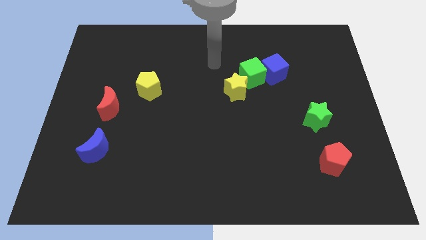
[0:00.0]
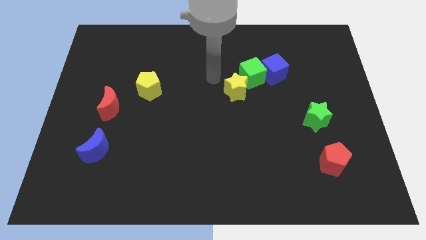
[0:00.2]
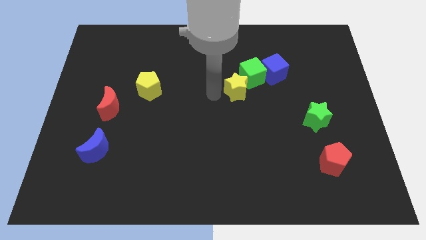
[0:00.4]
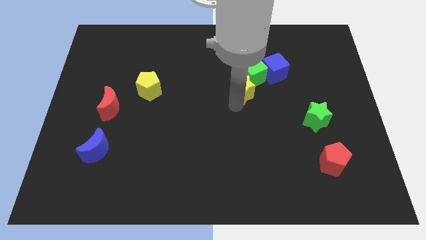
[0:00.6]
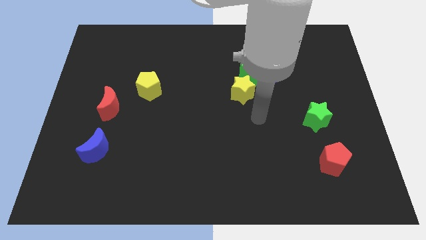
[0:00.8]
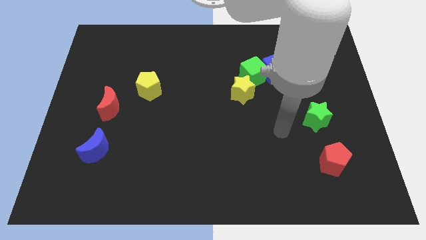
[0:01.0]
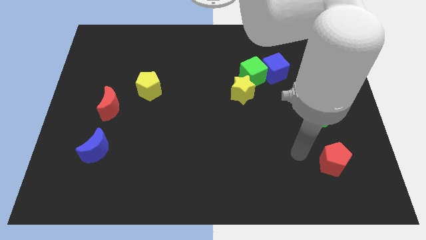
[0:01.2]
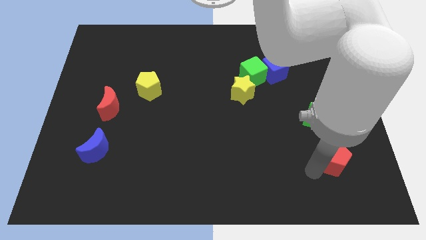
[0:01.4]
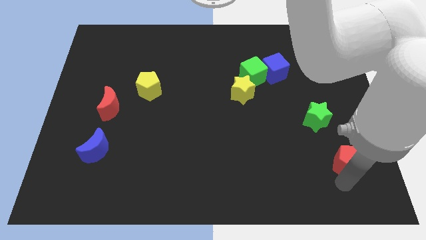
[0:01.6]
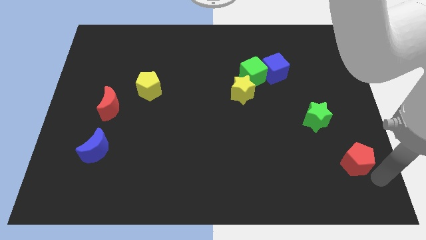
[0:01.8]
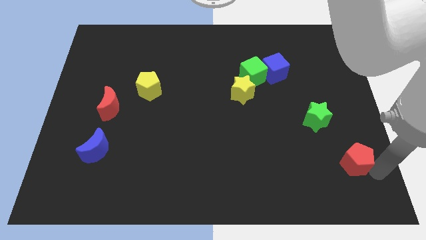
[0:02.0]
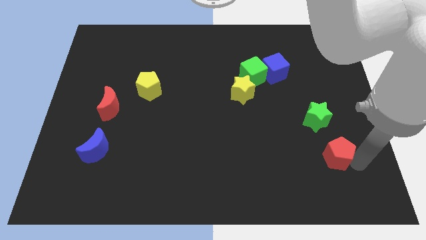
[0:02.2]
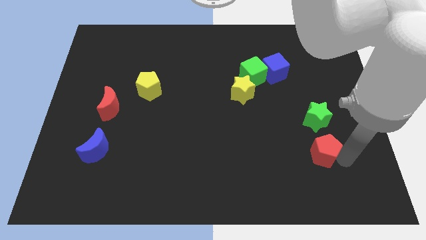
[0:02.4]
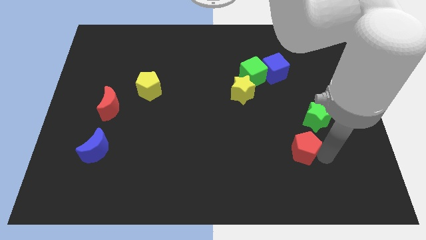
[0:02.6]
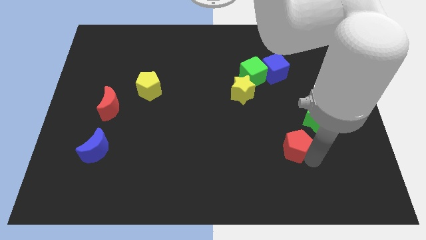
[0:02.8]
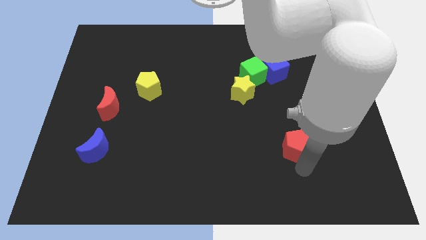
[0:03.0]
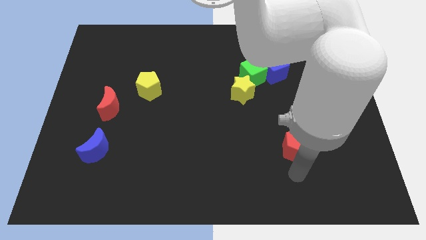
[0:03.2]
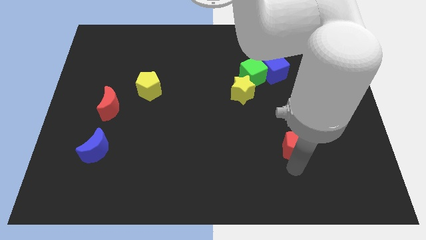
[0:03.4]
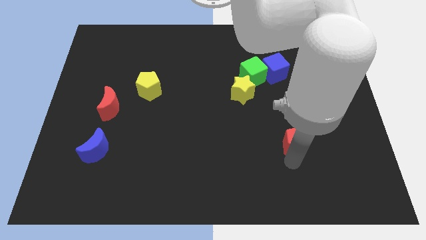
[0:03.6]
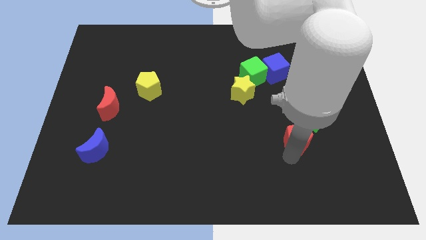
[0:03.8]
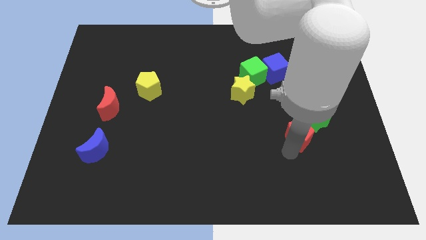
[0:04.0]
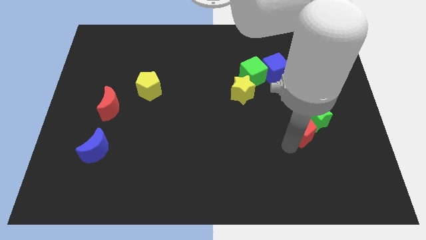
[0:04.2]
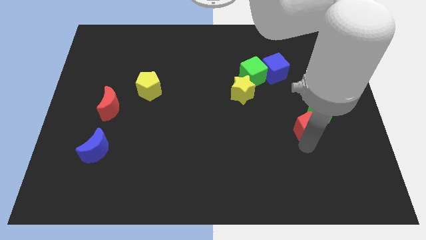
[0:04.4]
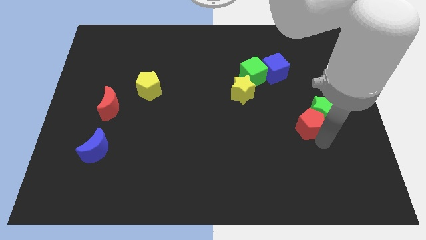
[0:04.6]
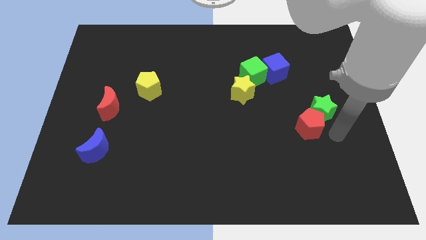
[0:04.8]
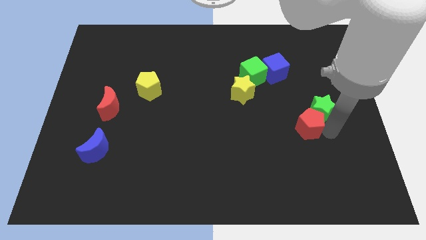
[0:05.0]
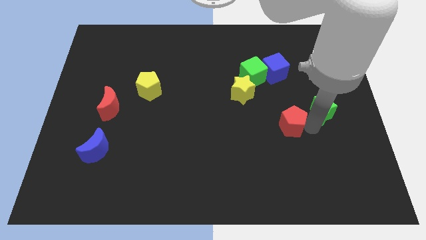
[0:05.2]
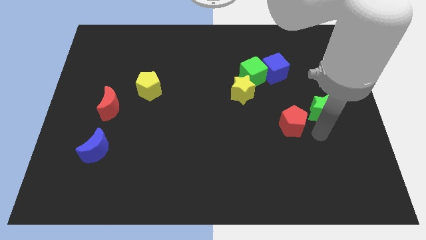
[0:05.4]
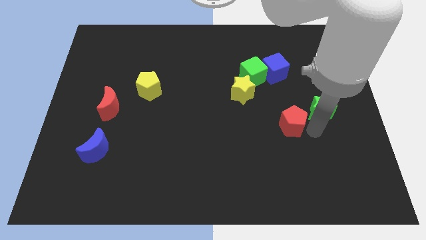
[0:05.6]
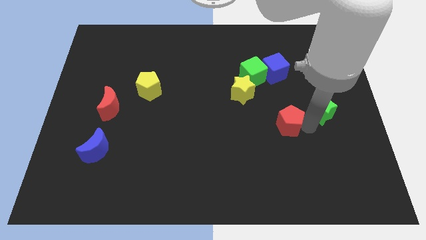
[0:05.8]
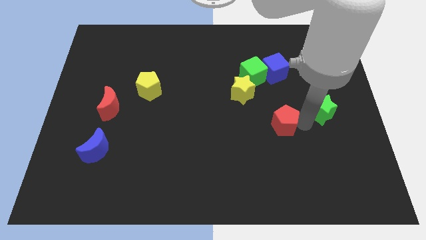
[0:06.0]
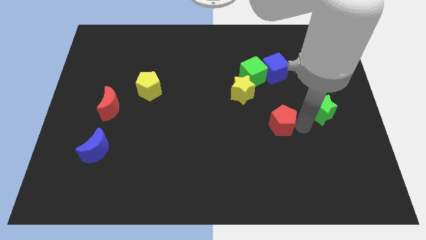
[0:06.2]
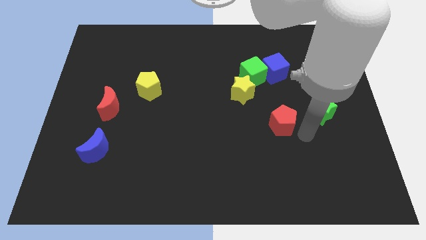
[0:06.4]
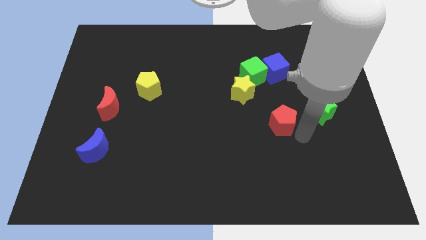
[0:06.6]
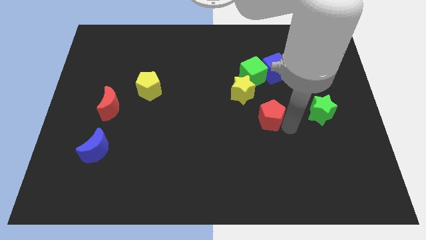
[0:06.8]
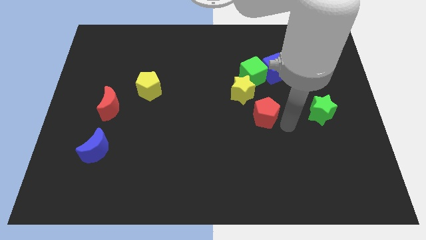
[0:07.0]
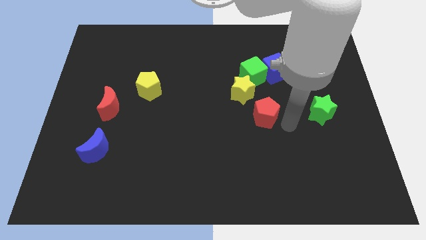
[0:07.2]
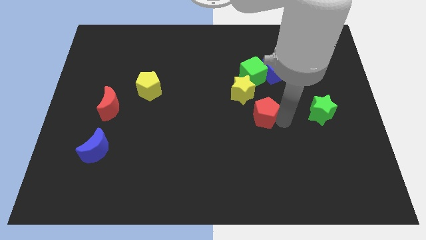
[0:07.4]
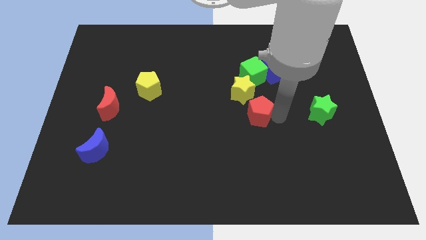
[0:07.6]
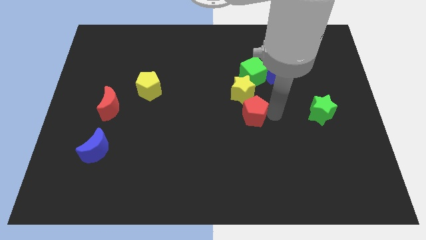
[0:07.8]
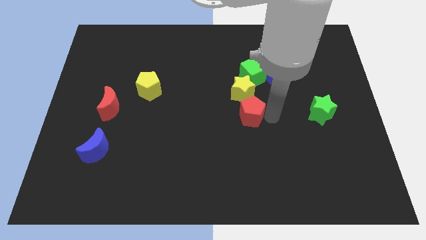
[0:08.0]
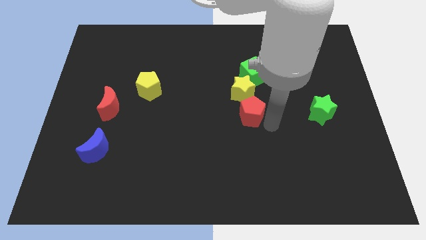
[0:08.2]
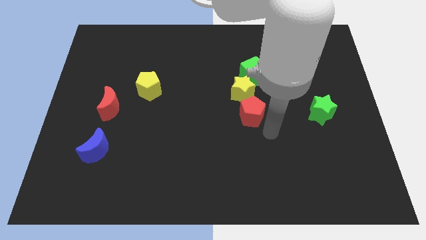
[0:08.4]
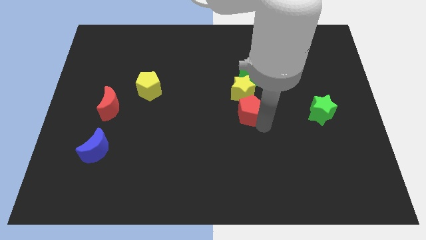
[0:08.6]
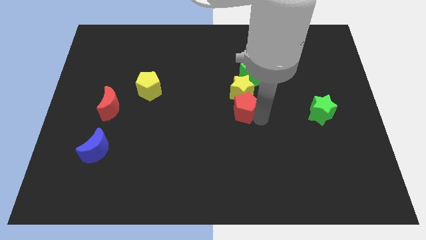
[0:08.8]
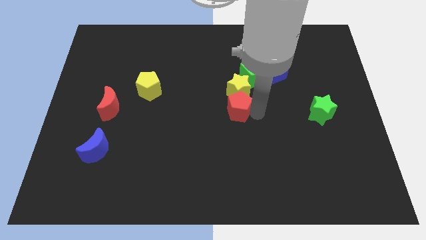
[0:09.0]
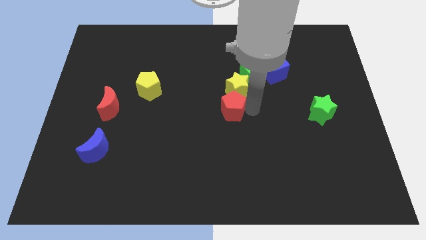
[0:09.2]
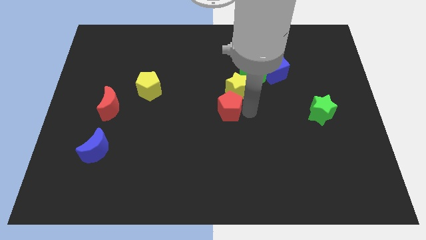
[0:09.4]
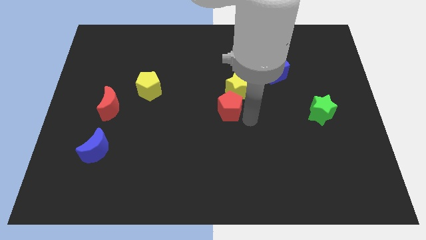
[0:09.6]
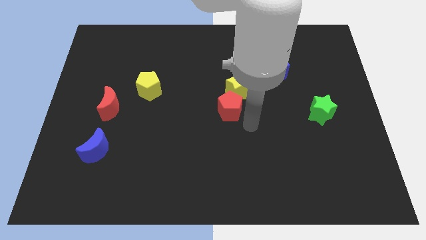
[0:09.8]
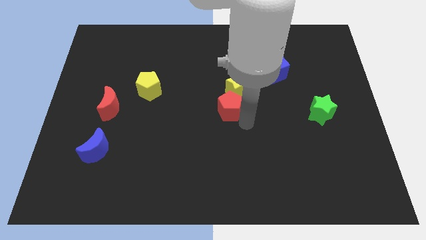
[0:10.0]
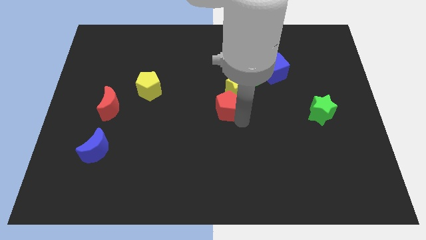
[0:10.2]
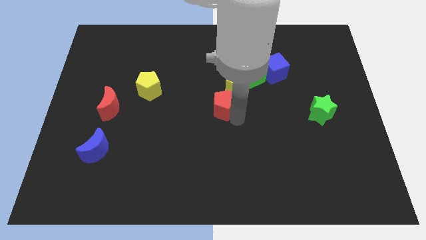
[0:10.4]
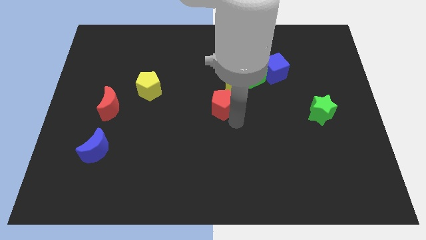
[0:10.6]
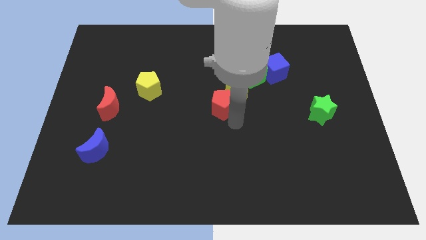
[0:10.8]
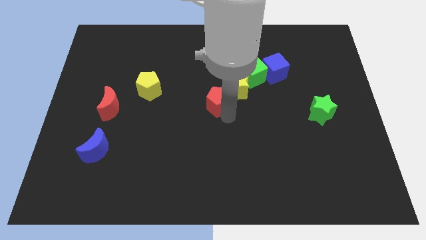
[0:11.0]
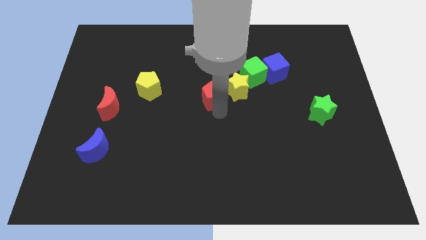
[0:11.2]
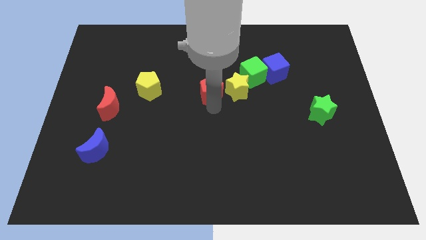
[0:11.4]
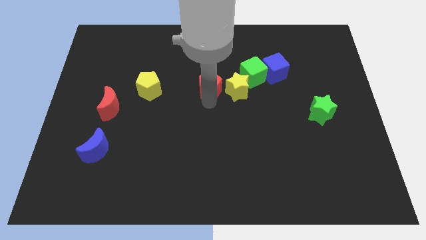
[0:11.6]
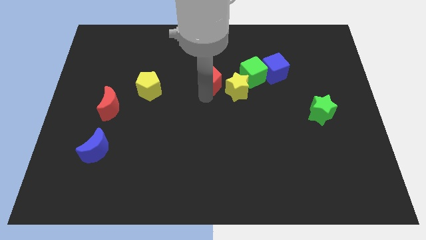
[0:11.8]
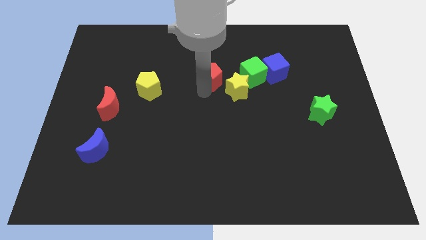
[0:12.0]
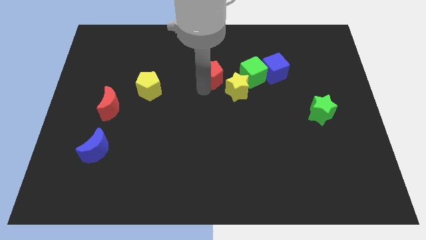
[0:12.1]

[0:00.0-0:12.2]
slide the red pentagon just left of the blue cube
